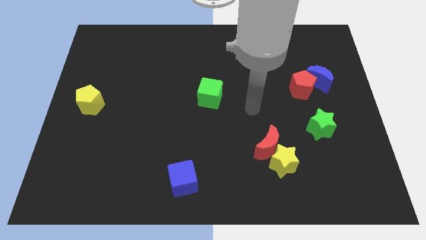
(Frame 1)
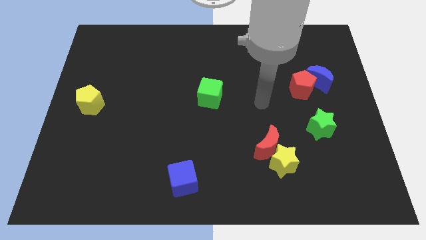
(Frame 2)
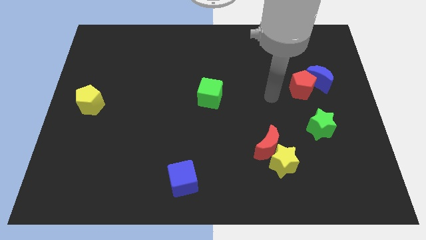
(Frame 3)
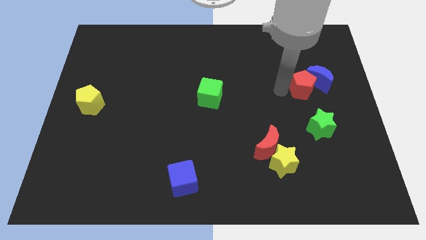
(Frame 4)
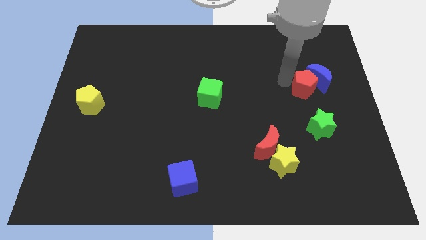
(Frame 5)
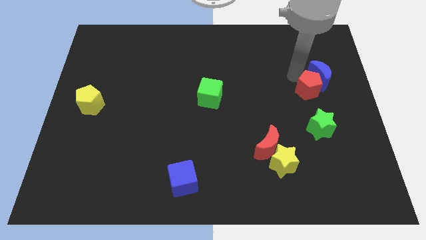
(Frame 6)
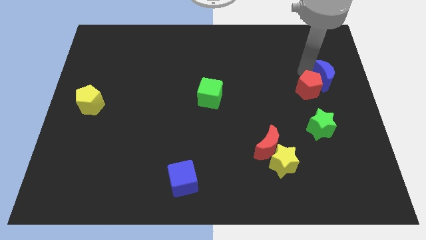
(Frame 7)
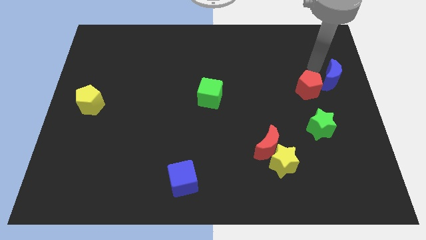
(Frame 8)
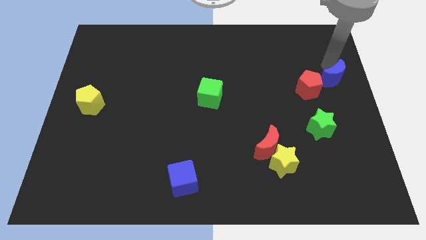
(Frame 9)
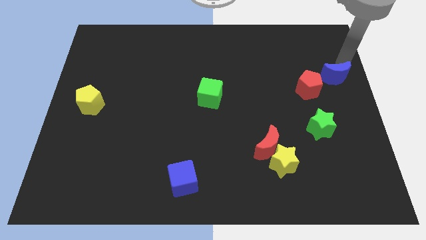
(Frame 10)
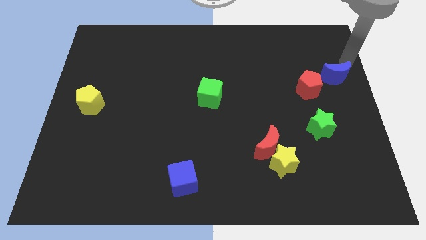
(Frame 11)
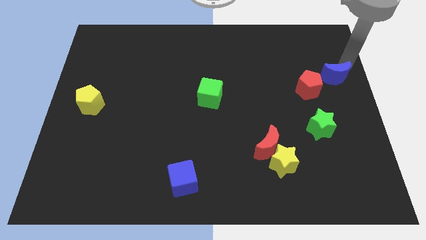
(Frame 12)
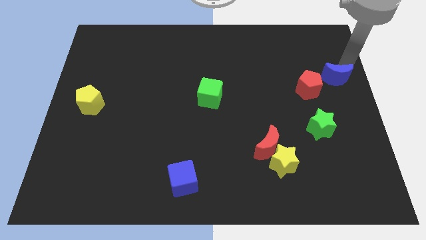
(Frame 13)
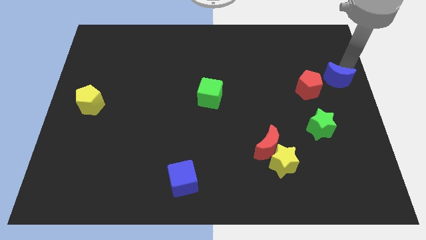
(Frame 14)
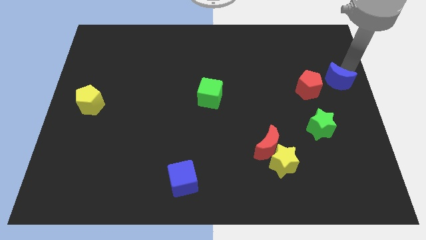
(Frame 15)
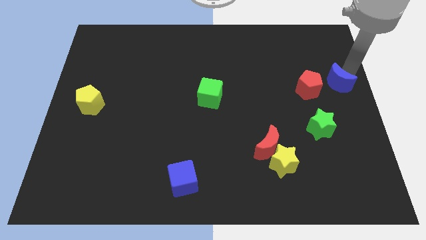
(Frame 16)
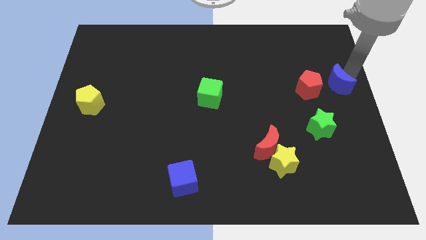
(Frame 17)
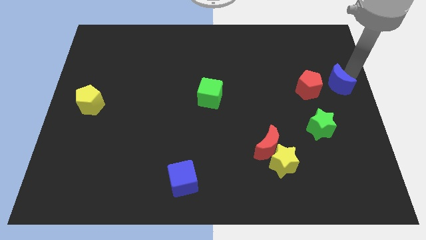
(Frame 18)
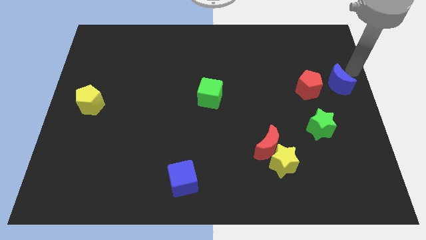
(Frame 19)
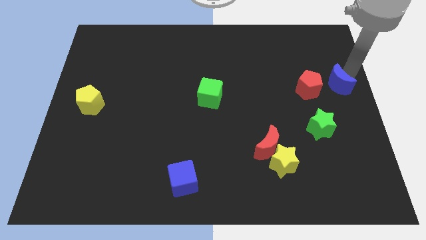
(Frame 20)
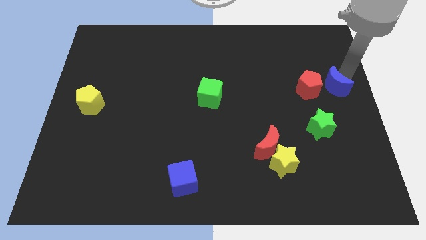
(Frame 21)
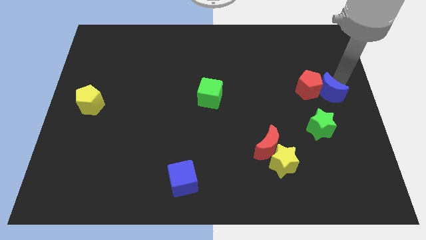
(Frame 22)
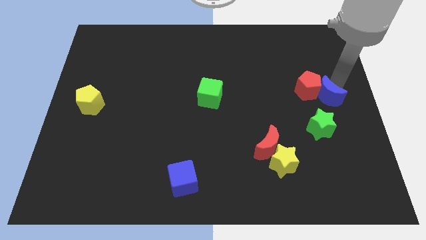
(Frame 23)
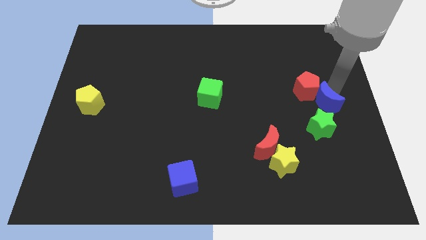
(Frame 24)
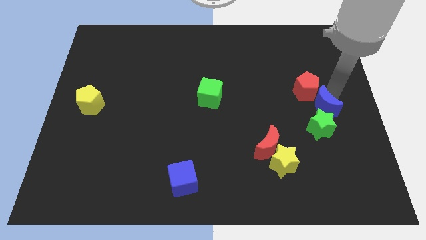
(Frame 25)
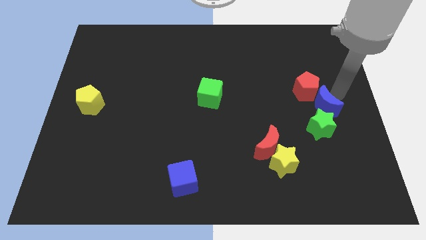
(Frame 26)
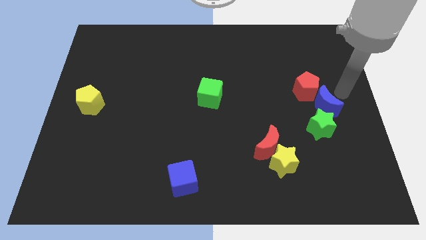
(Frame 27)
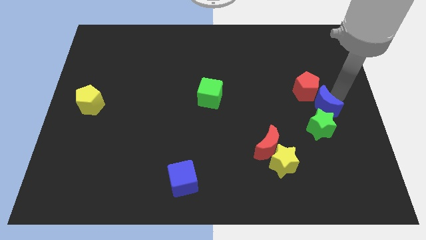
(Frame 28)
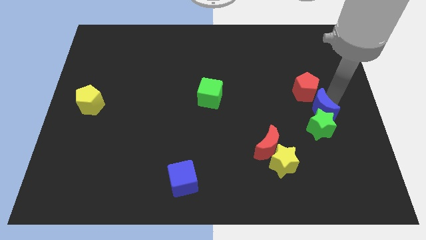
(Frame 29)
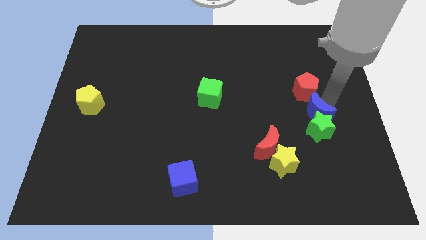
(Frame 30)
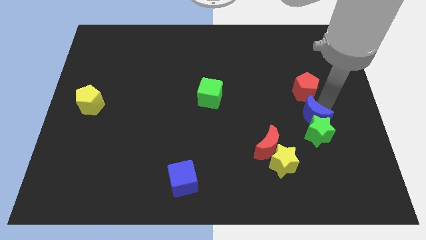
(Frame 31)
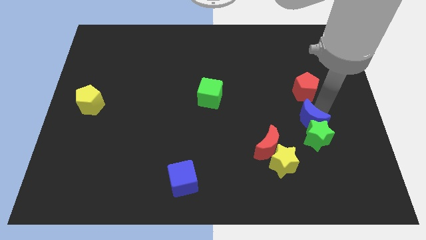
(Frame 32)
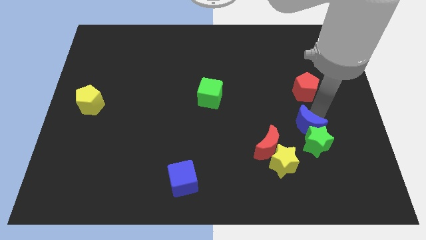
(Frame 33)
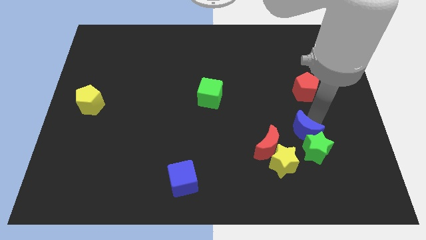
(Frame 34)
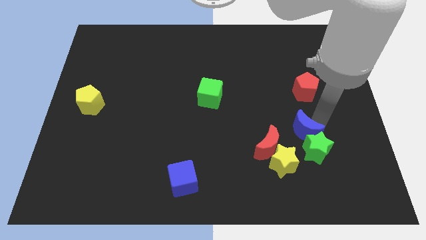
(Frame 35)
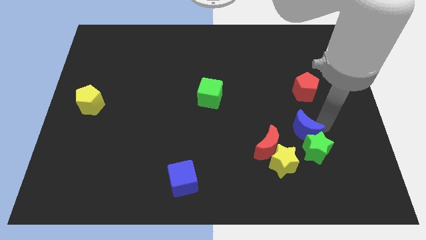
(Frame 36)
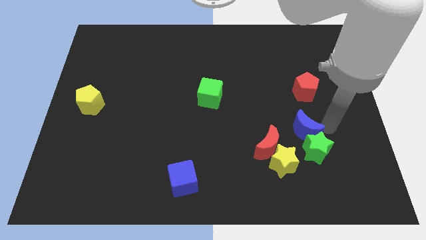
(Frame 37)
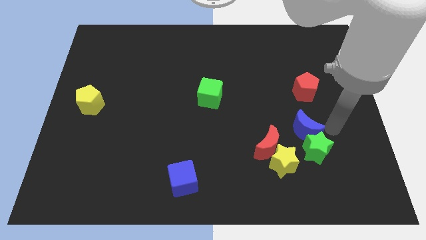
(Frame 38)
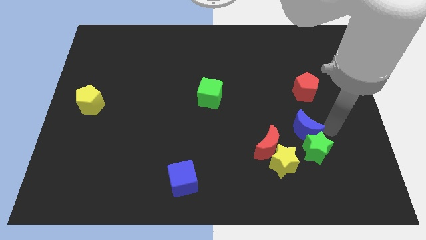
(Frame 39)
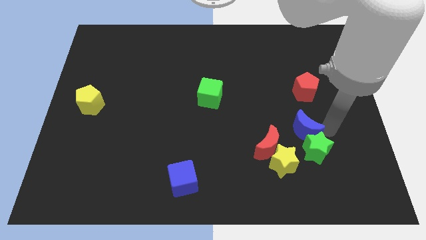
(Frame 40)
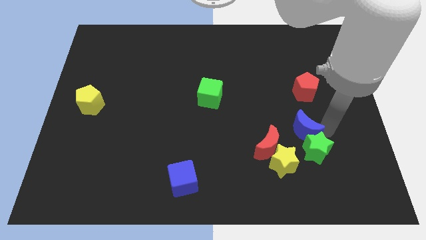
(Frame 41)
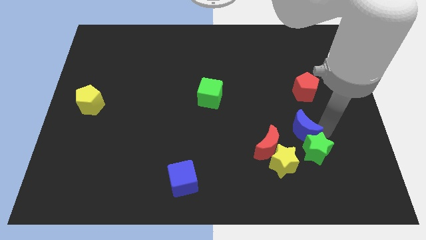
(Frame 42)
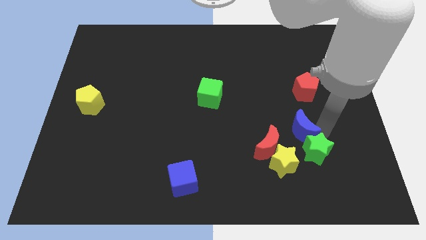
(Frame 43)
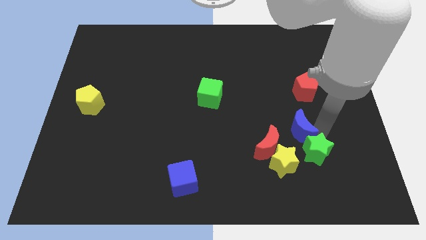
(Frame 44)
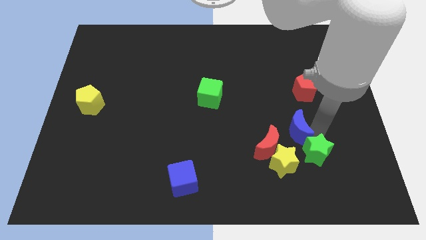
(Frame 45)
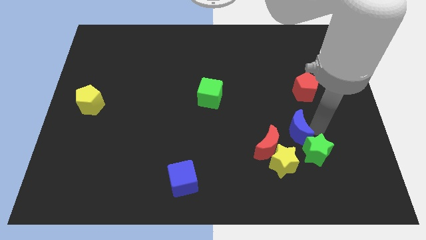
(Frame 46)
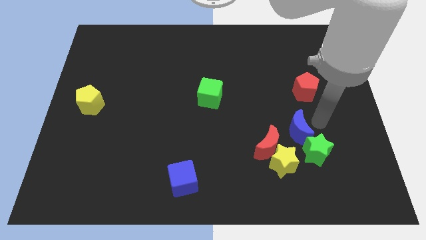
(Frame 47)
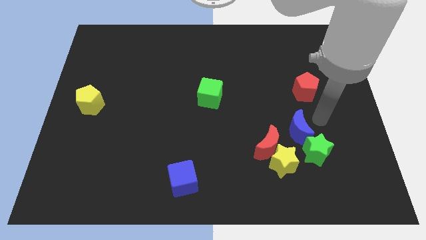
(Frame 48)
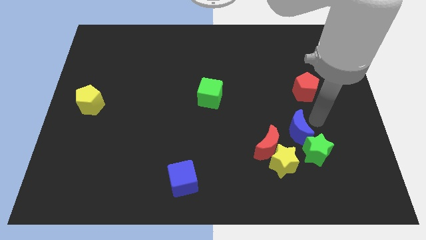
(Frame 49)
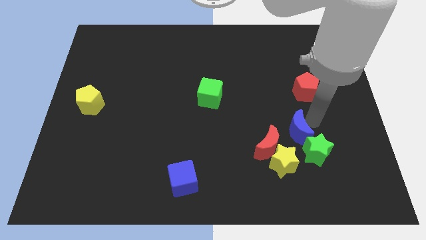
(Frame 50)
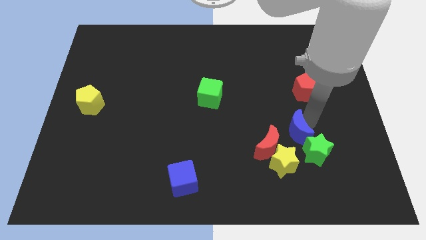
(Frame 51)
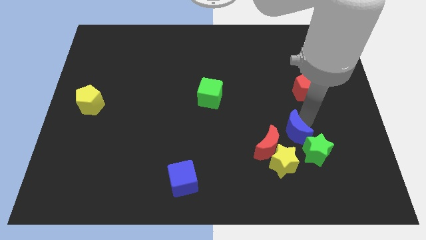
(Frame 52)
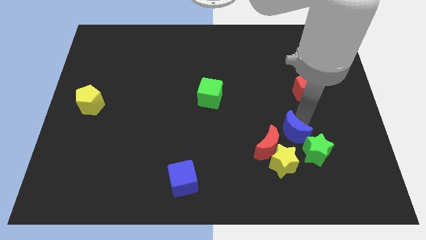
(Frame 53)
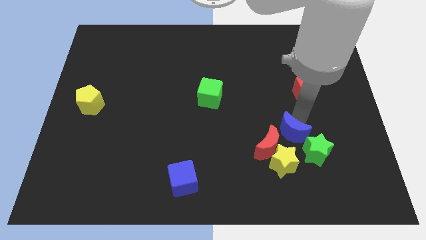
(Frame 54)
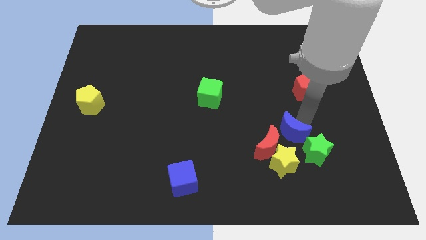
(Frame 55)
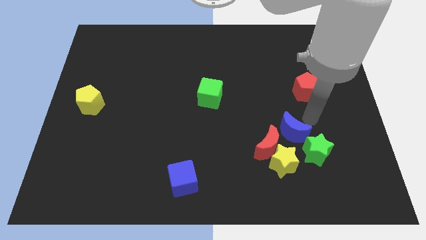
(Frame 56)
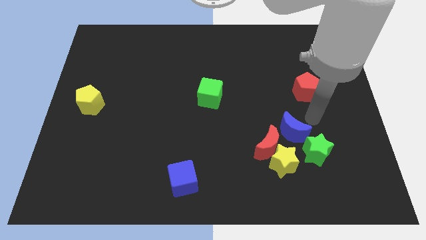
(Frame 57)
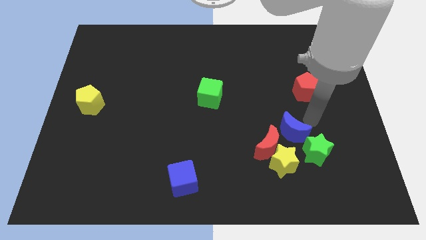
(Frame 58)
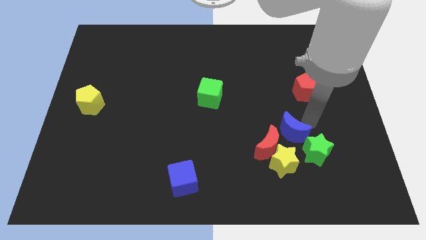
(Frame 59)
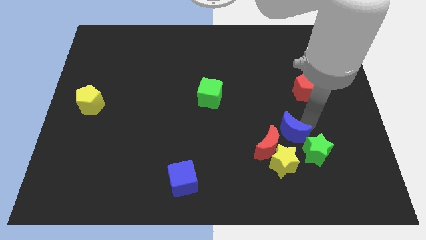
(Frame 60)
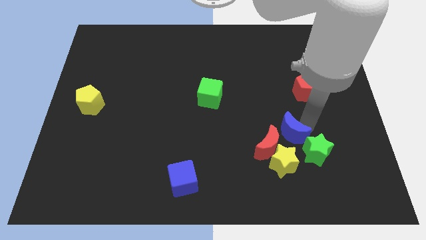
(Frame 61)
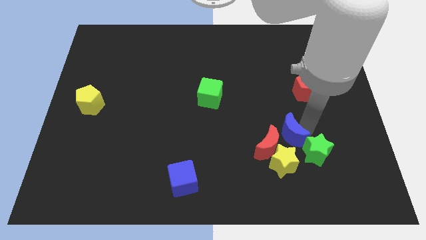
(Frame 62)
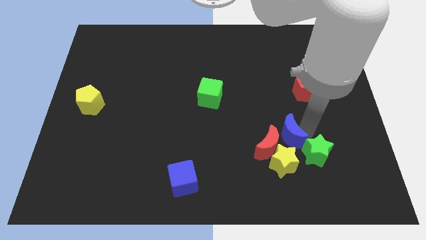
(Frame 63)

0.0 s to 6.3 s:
slide the blue moon next to the red moon

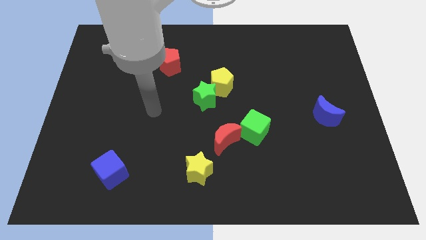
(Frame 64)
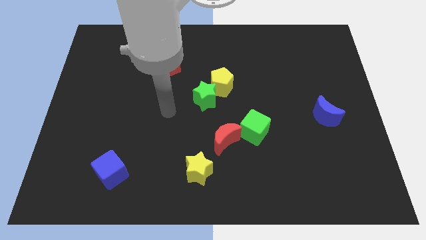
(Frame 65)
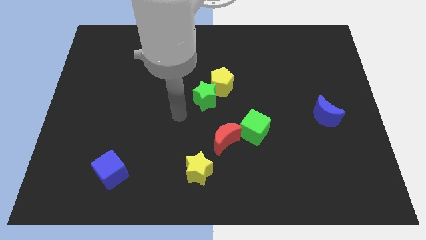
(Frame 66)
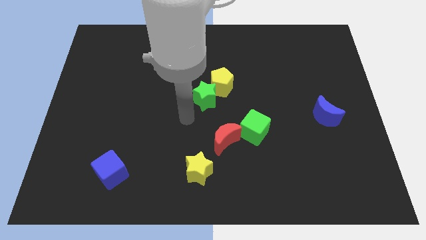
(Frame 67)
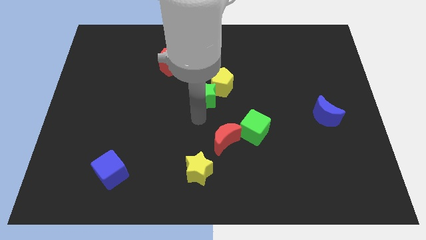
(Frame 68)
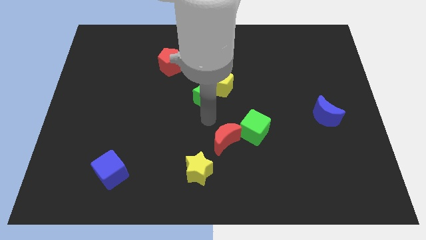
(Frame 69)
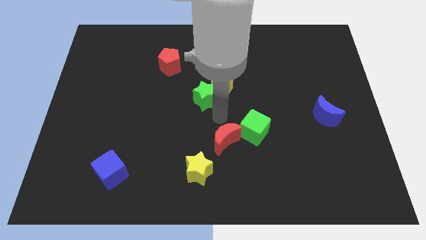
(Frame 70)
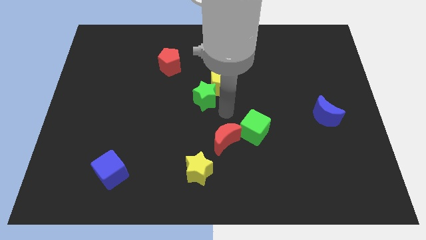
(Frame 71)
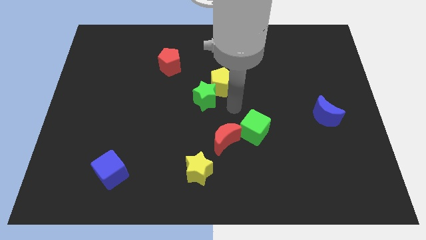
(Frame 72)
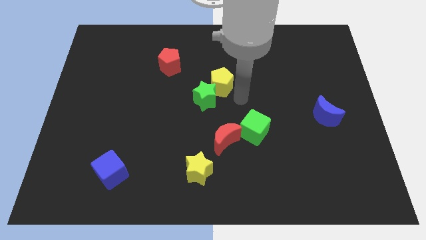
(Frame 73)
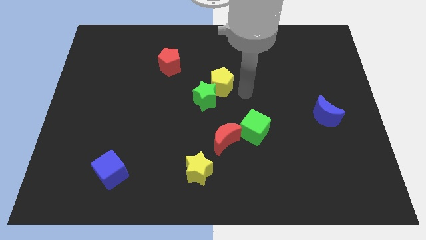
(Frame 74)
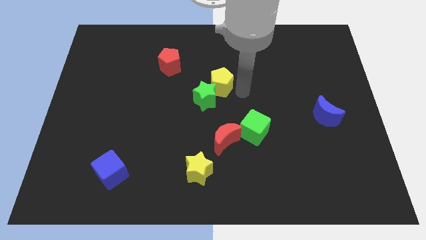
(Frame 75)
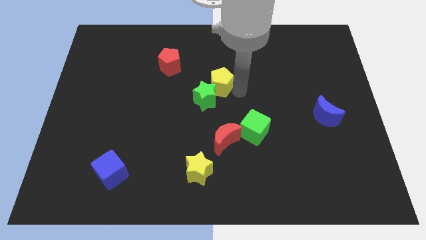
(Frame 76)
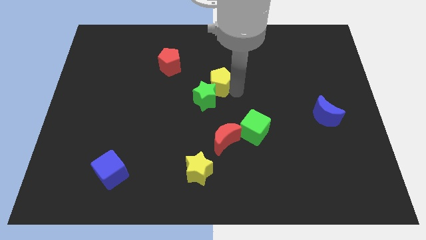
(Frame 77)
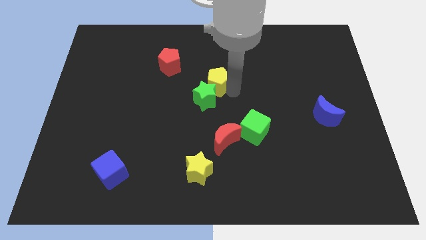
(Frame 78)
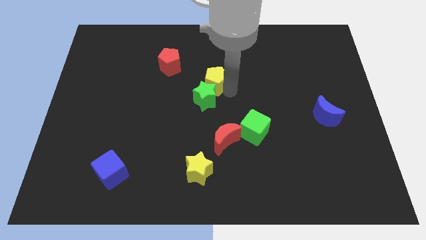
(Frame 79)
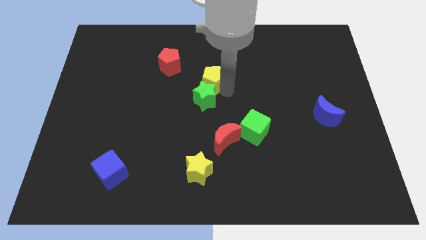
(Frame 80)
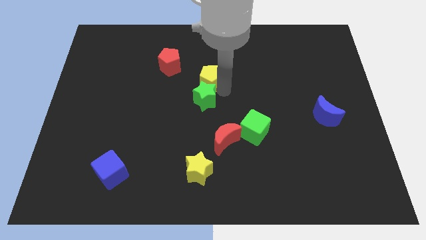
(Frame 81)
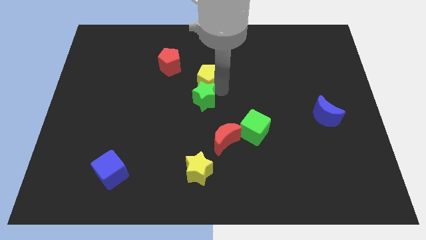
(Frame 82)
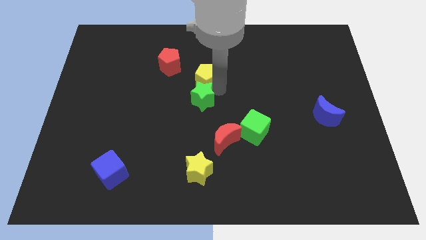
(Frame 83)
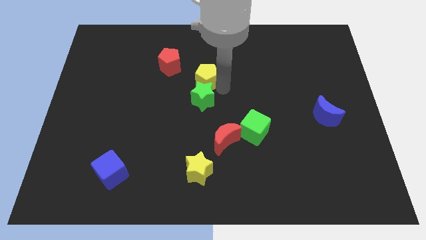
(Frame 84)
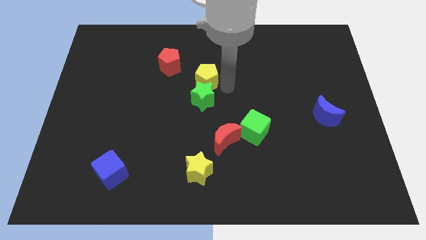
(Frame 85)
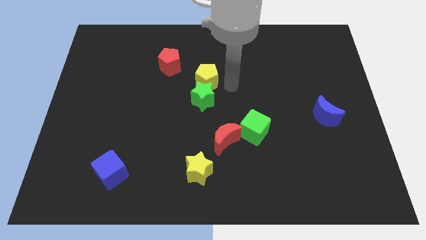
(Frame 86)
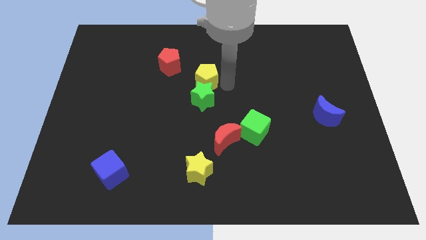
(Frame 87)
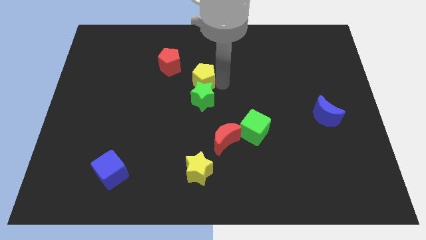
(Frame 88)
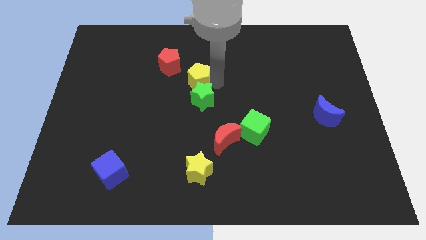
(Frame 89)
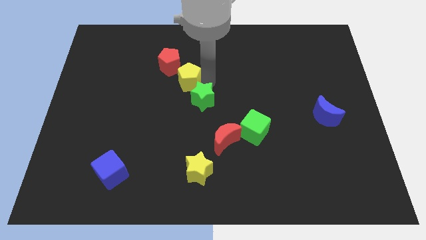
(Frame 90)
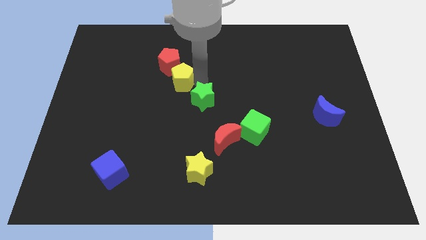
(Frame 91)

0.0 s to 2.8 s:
move the yellow pentagon towards the red pentagon
